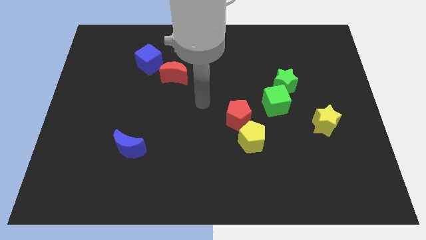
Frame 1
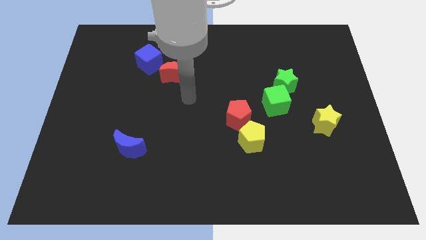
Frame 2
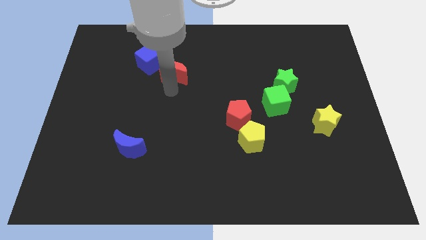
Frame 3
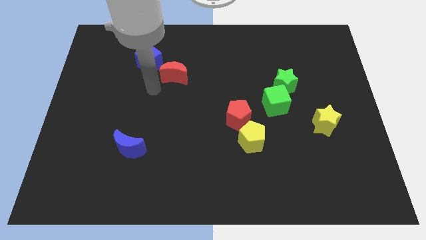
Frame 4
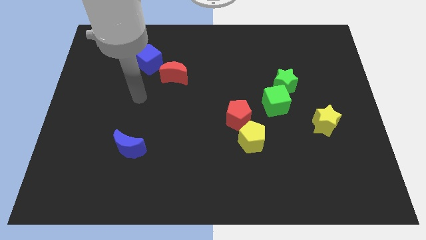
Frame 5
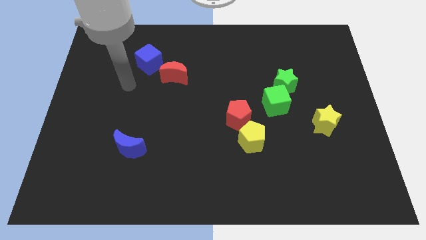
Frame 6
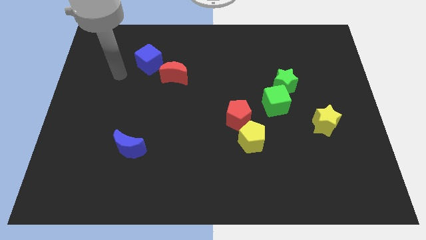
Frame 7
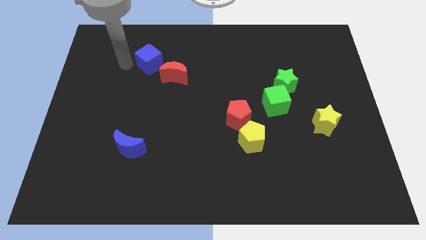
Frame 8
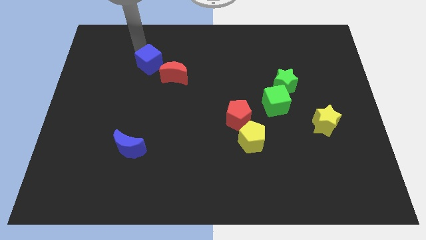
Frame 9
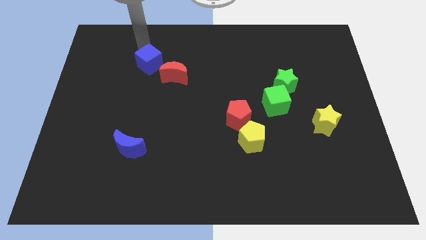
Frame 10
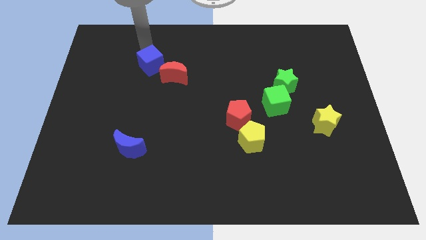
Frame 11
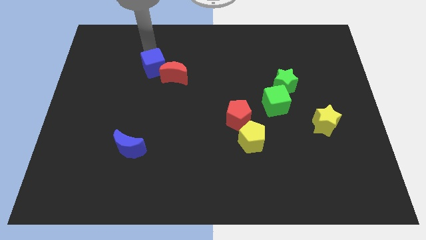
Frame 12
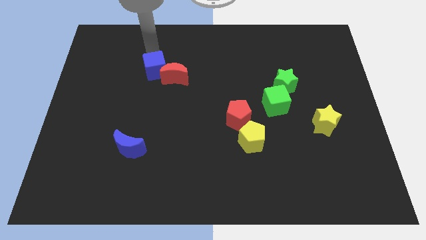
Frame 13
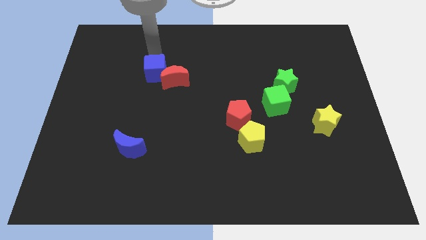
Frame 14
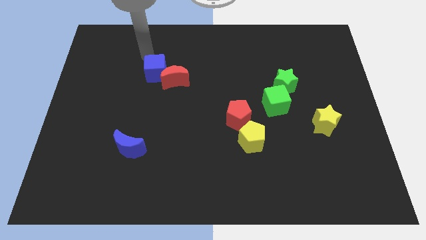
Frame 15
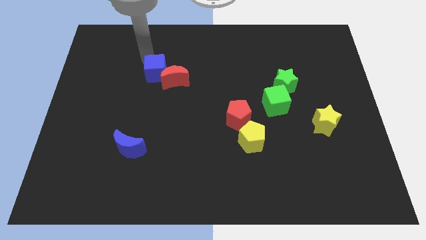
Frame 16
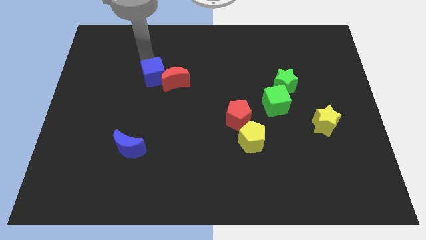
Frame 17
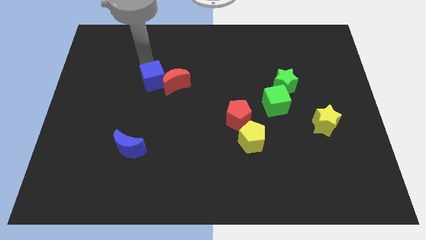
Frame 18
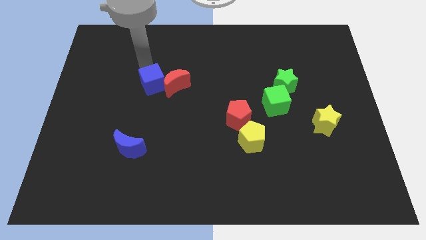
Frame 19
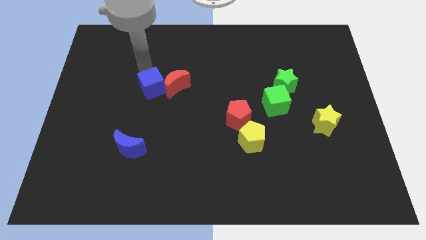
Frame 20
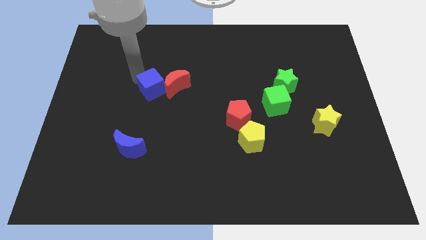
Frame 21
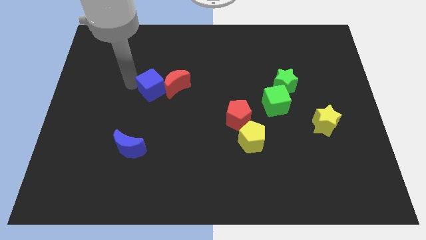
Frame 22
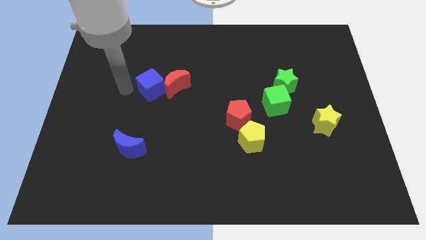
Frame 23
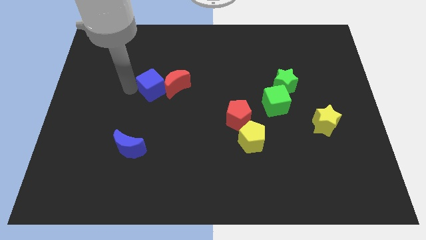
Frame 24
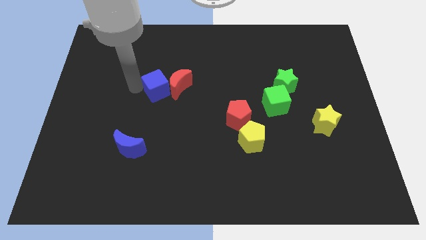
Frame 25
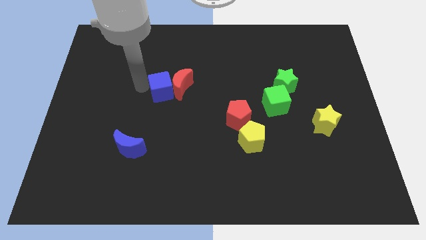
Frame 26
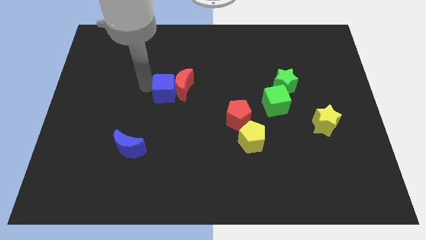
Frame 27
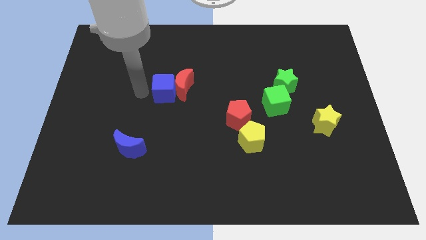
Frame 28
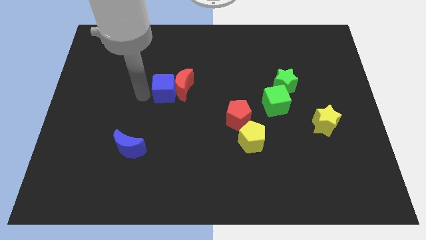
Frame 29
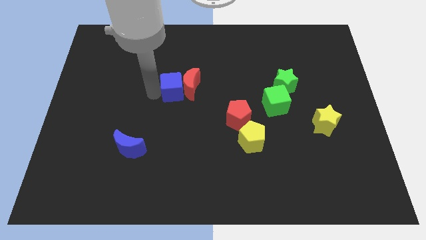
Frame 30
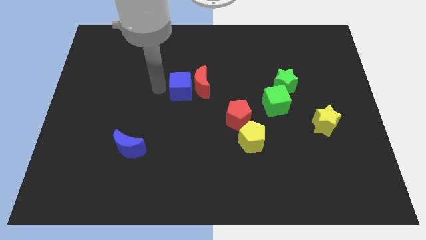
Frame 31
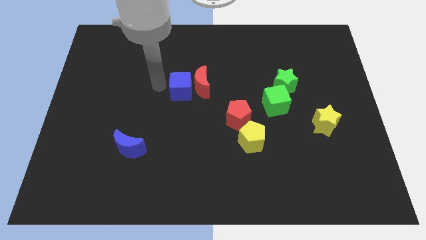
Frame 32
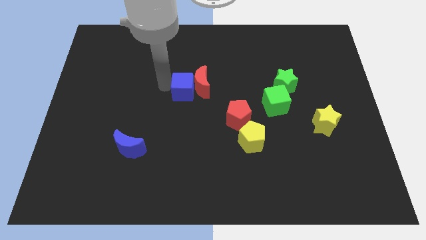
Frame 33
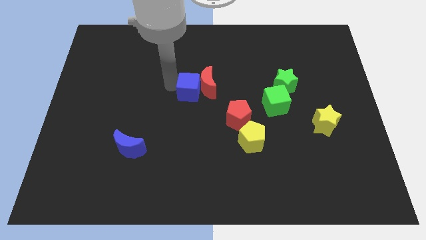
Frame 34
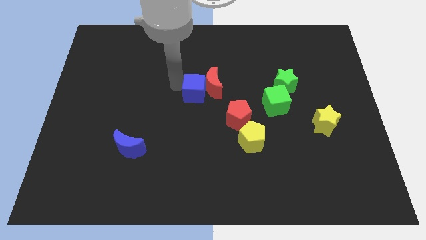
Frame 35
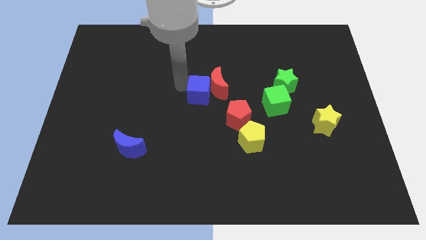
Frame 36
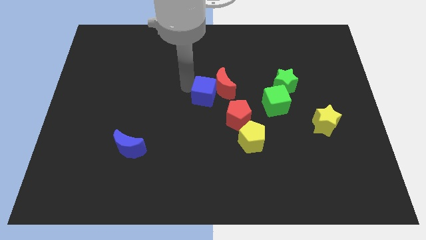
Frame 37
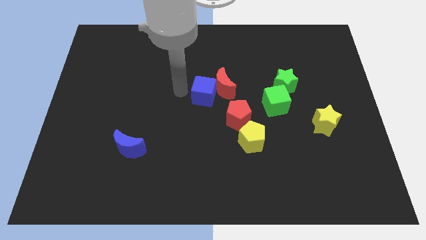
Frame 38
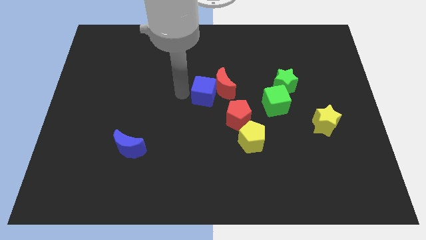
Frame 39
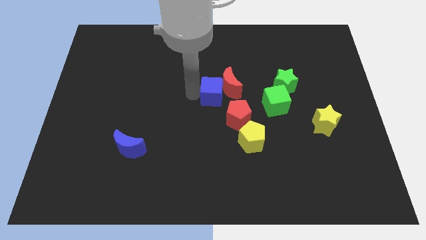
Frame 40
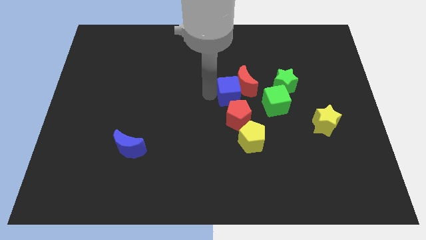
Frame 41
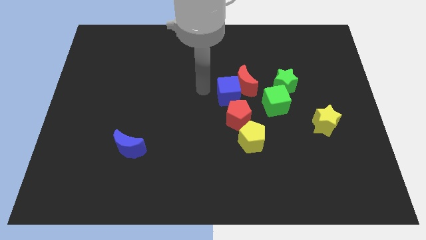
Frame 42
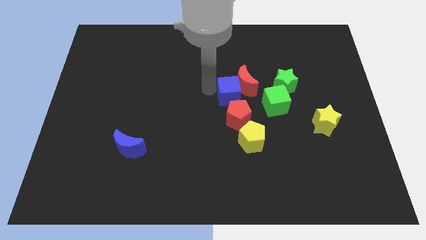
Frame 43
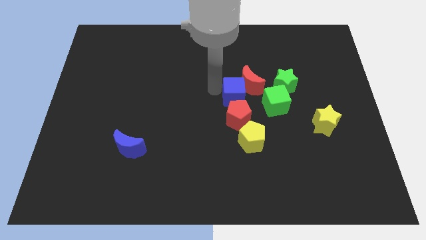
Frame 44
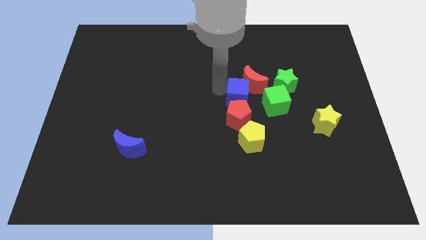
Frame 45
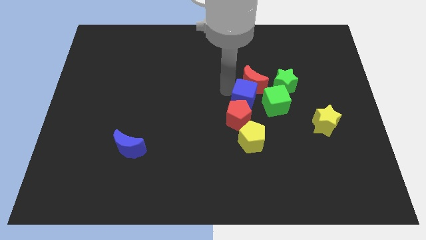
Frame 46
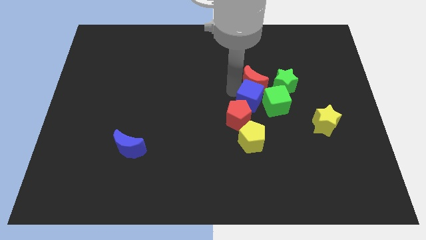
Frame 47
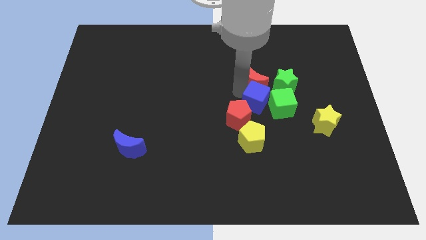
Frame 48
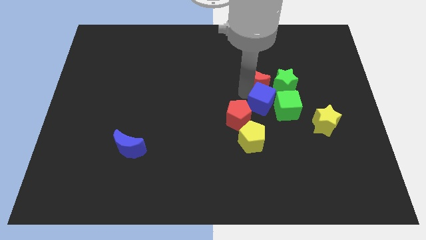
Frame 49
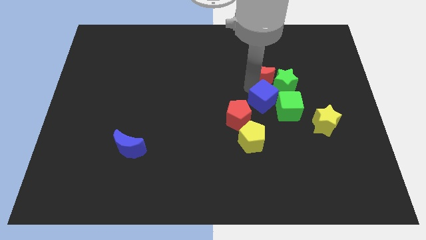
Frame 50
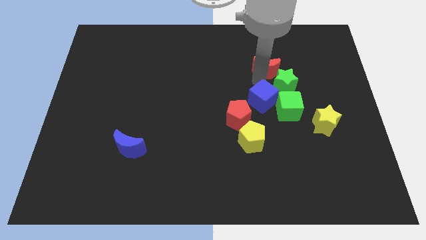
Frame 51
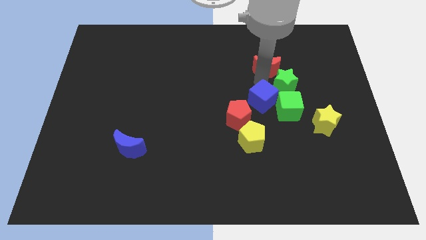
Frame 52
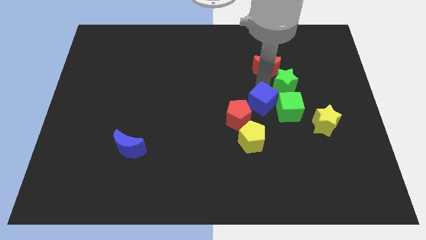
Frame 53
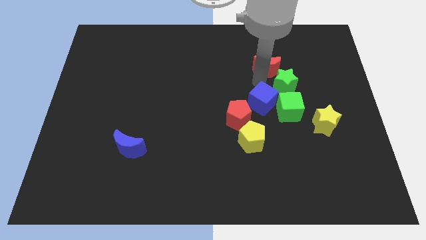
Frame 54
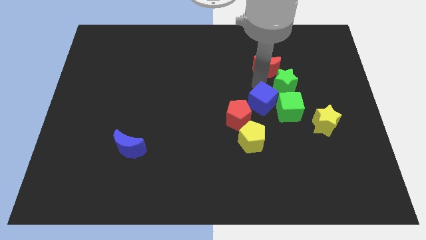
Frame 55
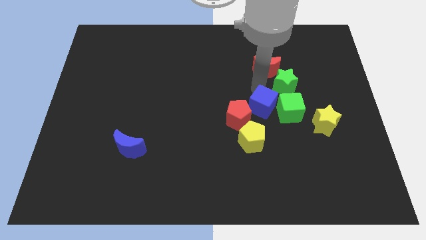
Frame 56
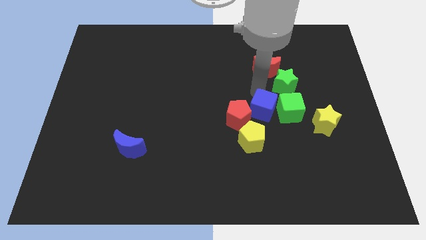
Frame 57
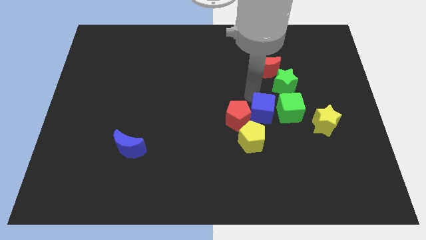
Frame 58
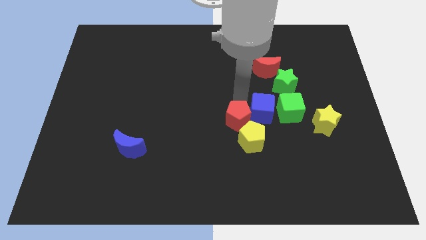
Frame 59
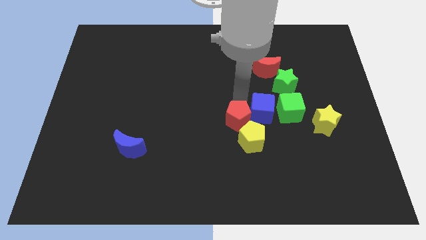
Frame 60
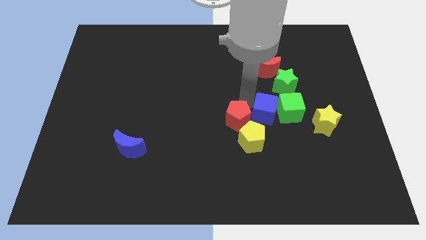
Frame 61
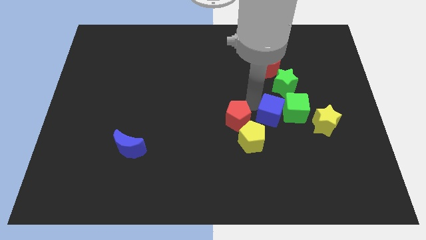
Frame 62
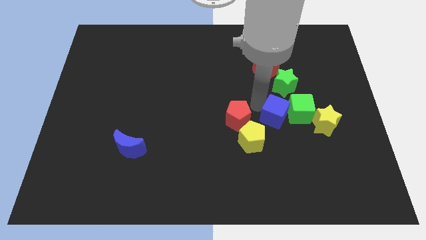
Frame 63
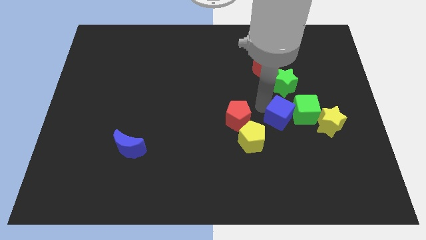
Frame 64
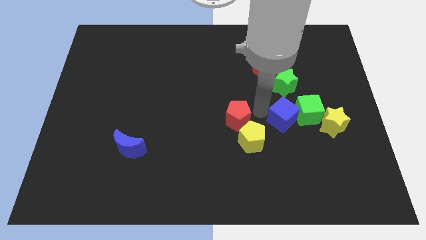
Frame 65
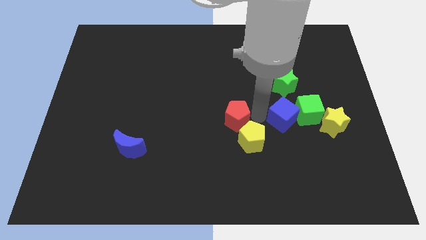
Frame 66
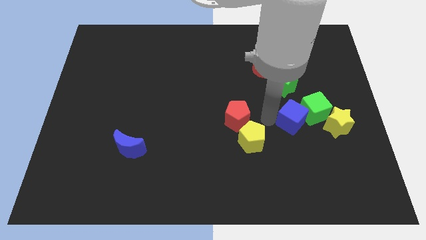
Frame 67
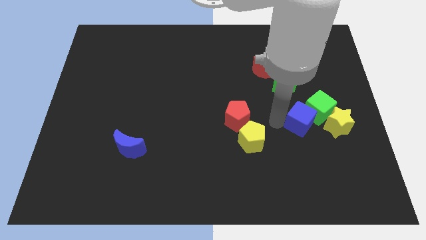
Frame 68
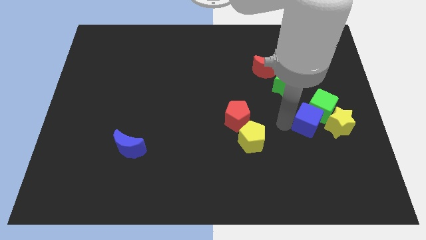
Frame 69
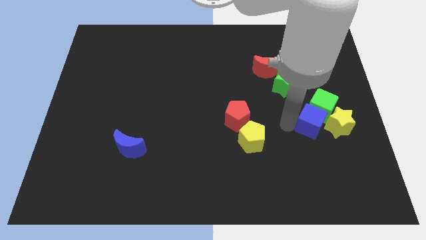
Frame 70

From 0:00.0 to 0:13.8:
slide the blue cube next to the yellow star

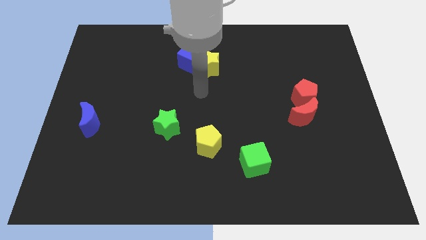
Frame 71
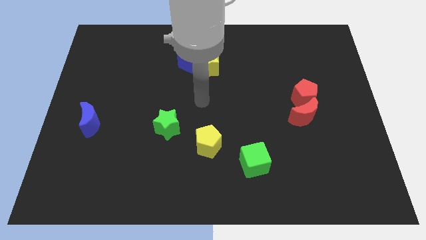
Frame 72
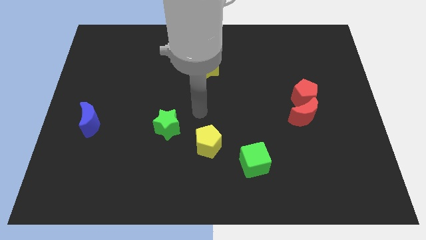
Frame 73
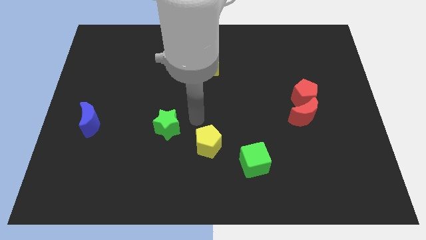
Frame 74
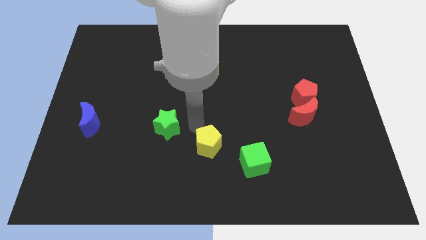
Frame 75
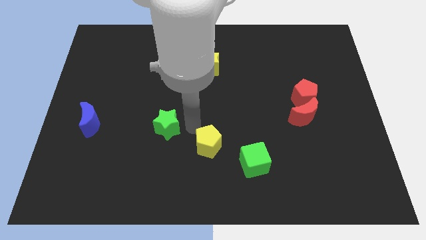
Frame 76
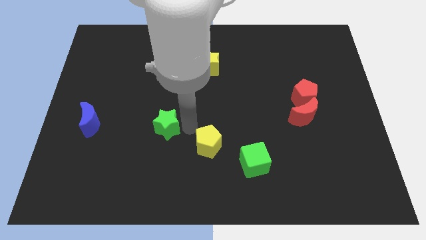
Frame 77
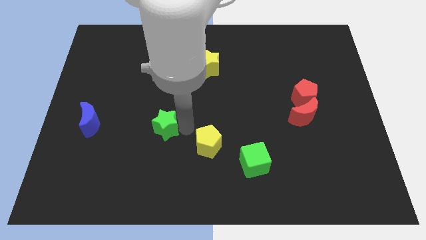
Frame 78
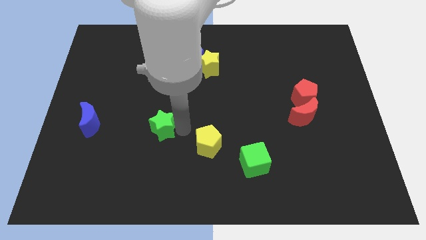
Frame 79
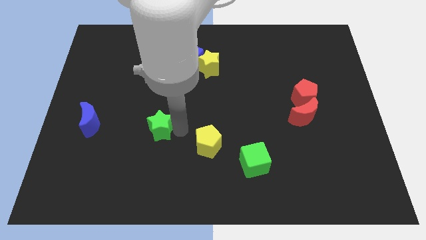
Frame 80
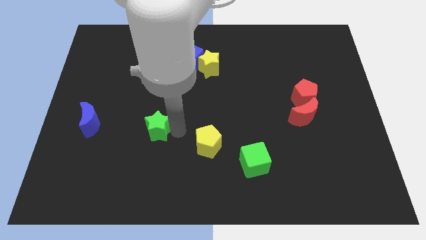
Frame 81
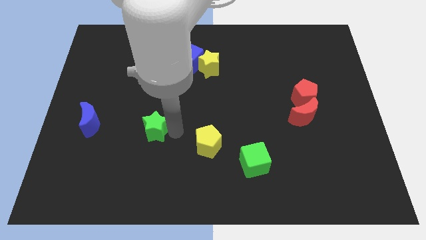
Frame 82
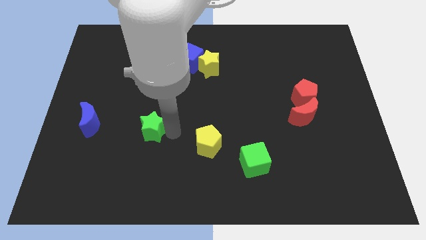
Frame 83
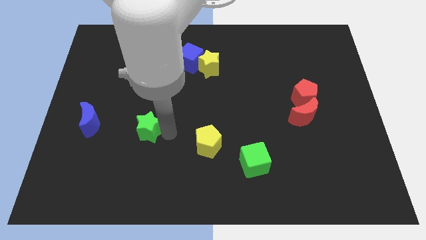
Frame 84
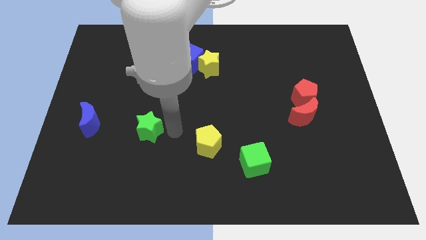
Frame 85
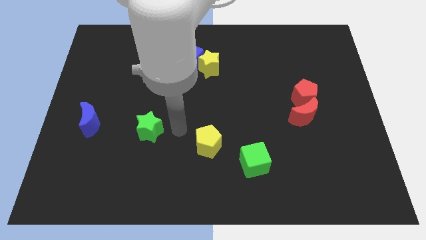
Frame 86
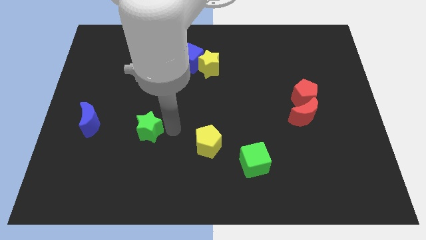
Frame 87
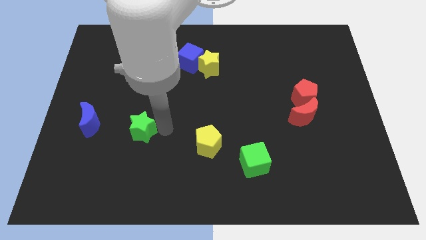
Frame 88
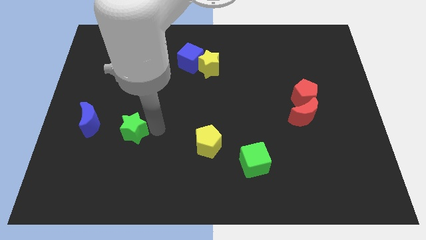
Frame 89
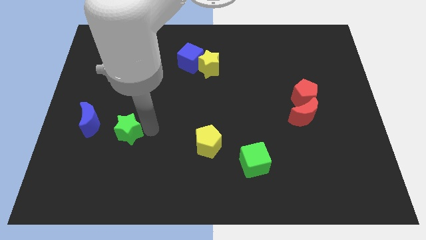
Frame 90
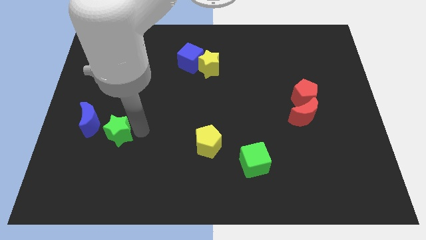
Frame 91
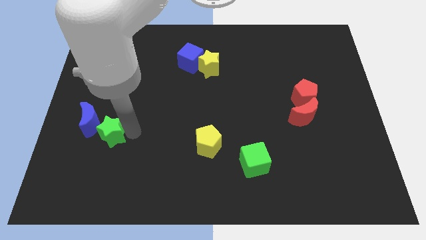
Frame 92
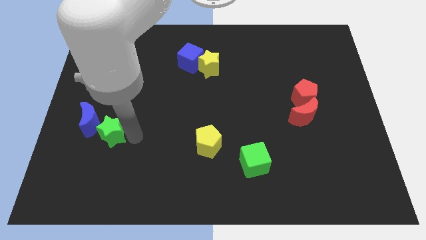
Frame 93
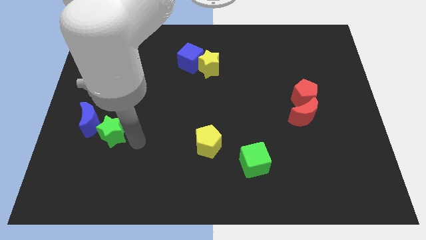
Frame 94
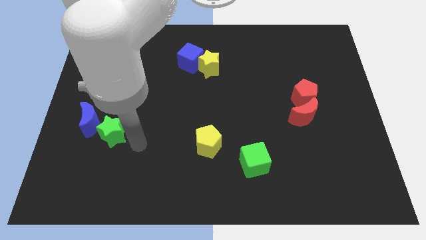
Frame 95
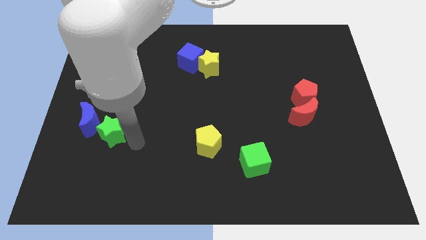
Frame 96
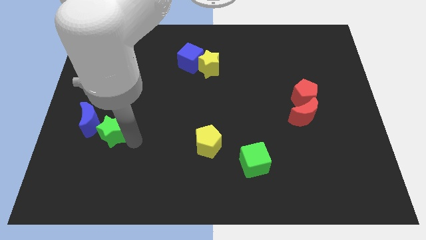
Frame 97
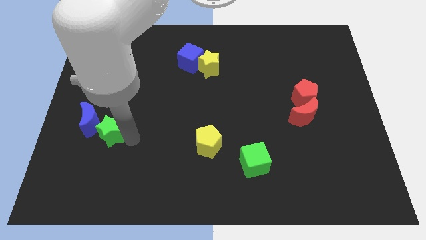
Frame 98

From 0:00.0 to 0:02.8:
move the green star towards the blue moon
